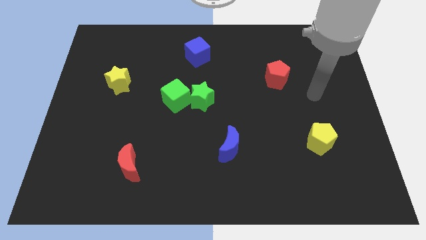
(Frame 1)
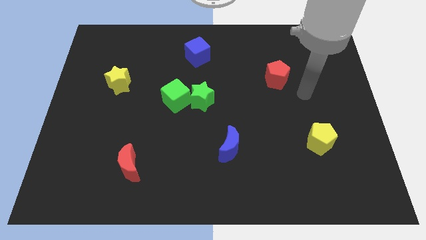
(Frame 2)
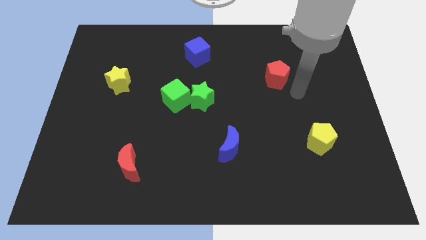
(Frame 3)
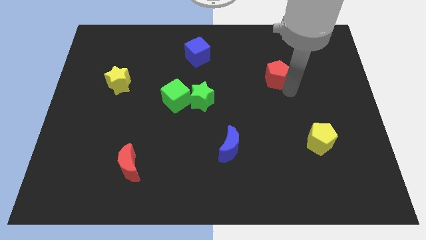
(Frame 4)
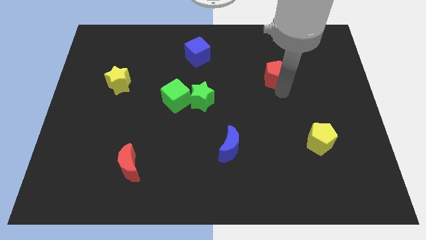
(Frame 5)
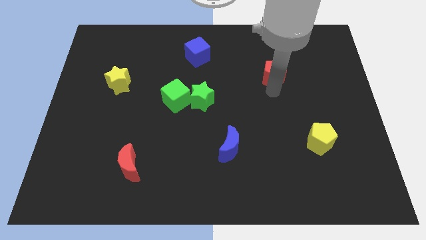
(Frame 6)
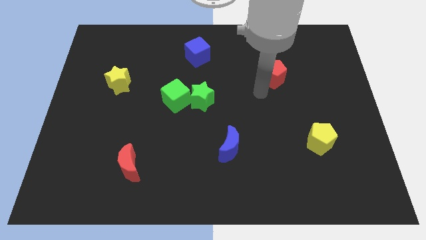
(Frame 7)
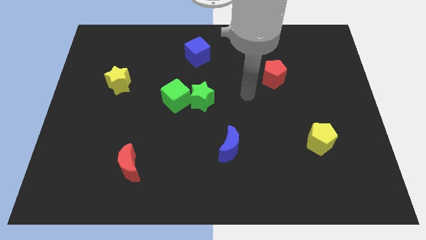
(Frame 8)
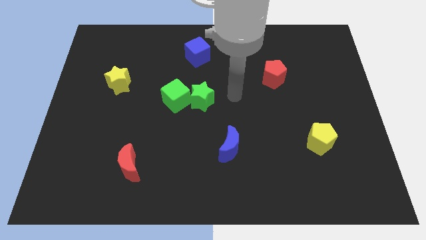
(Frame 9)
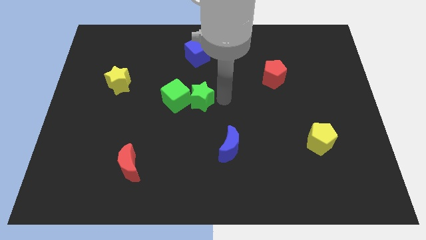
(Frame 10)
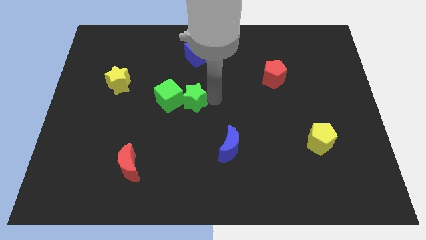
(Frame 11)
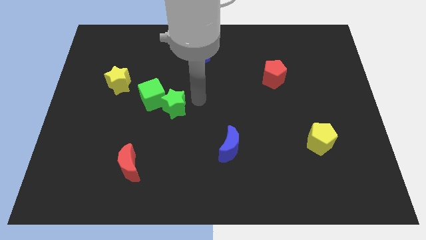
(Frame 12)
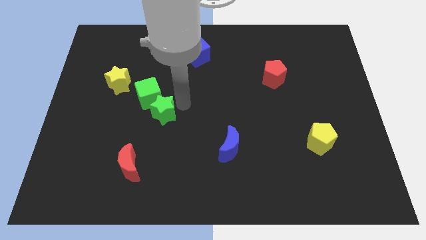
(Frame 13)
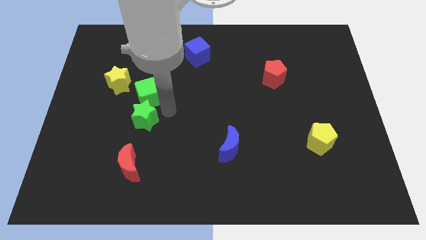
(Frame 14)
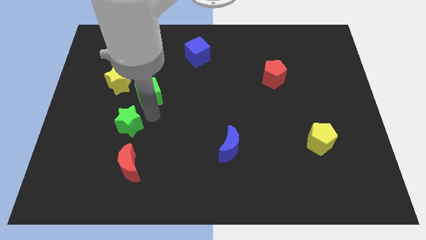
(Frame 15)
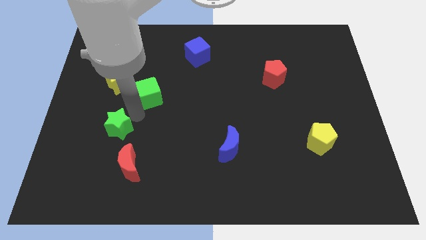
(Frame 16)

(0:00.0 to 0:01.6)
separate the green cube from the green star

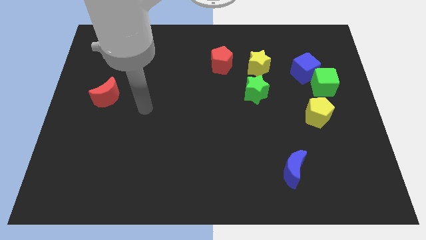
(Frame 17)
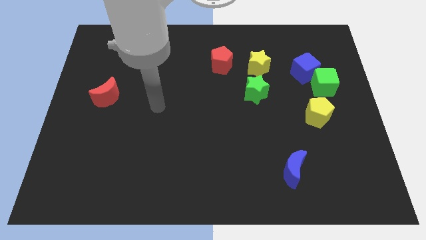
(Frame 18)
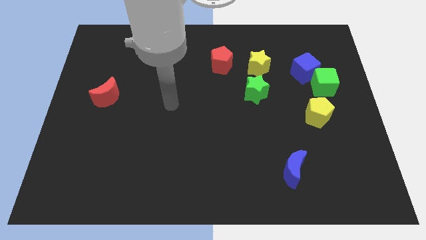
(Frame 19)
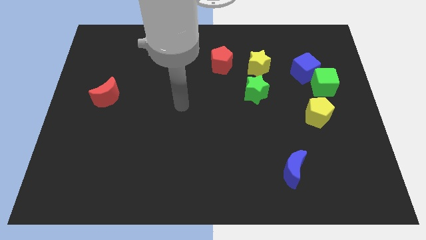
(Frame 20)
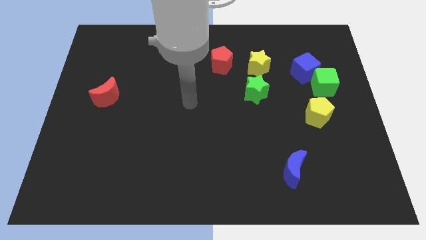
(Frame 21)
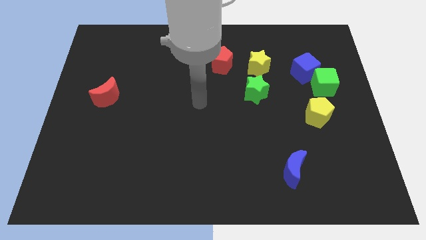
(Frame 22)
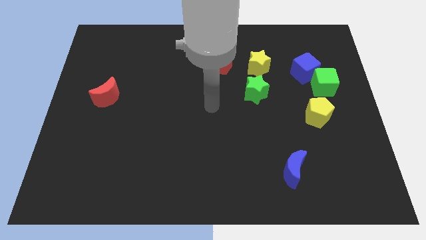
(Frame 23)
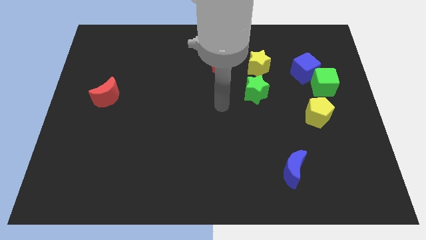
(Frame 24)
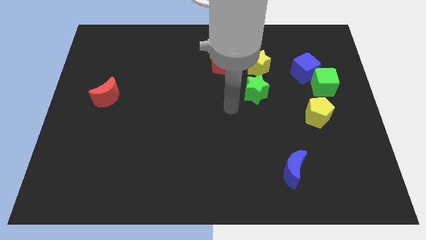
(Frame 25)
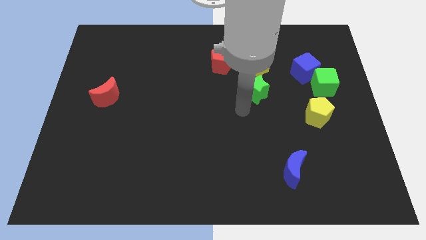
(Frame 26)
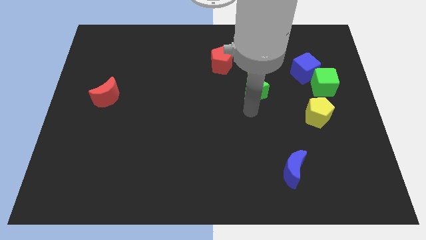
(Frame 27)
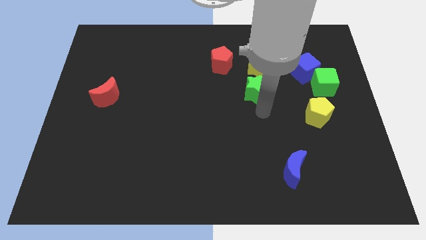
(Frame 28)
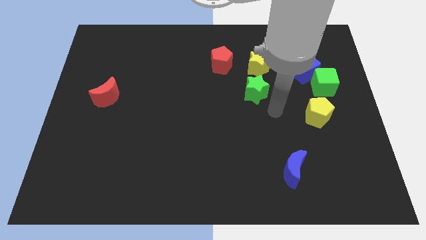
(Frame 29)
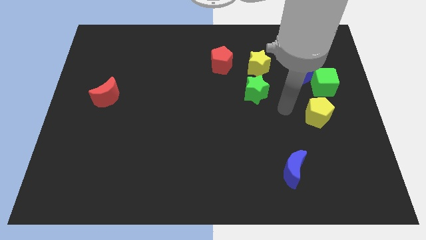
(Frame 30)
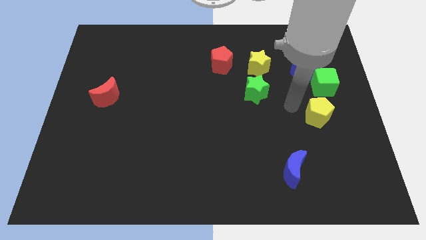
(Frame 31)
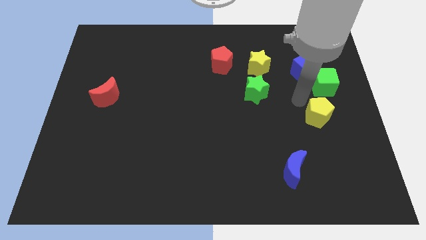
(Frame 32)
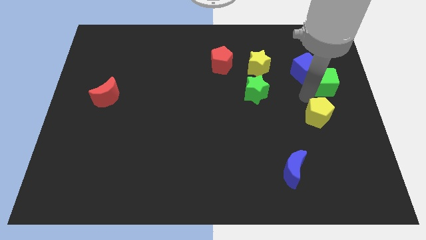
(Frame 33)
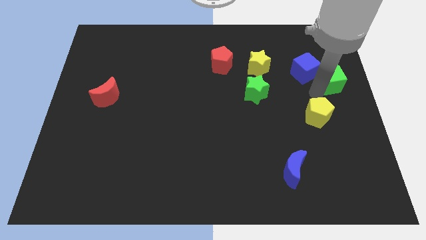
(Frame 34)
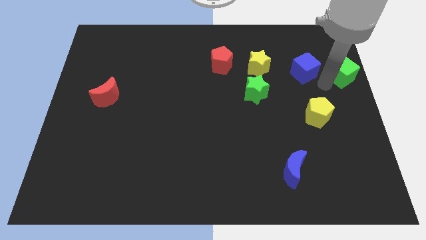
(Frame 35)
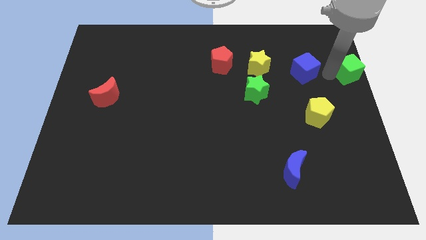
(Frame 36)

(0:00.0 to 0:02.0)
separate the blue cube from the green cube

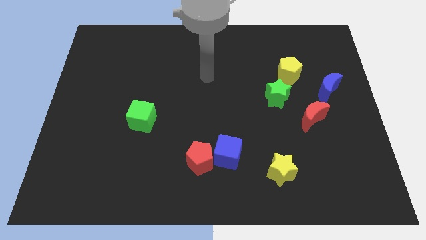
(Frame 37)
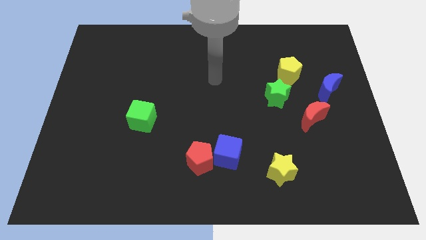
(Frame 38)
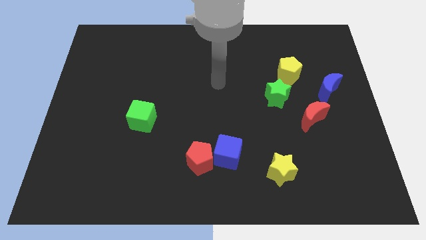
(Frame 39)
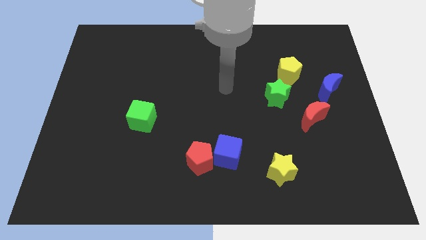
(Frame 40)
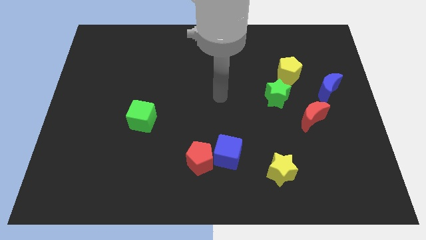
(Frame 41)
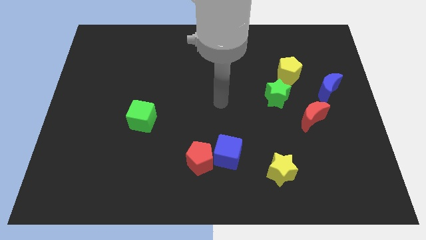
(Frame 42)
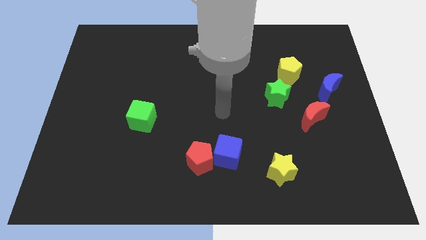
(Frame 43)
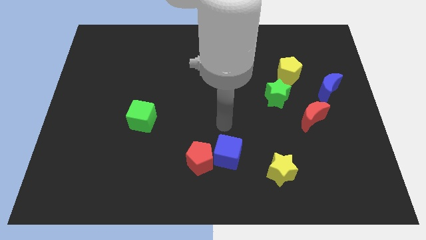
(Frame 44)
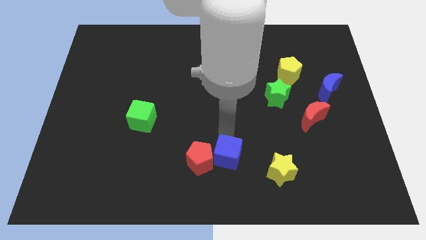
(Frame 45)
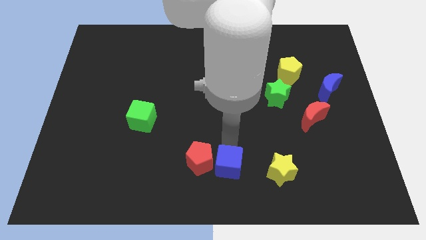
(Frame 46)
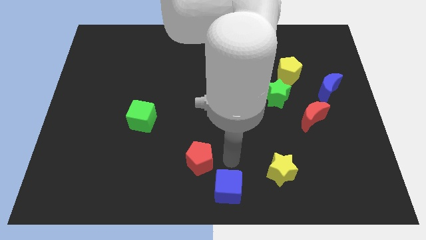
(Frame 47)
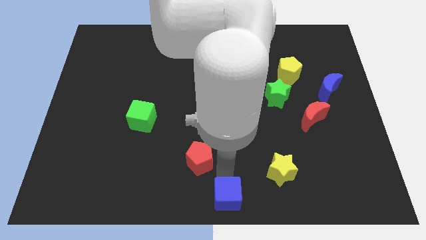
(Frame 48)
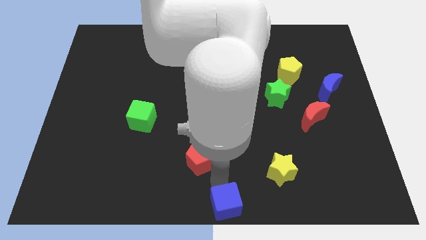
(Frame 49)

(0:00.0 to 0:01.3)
separate the red pentagon from the blue cube

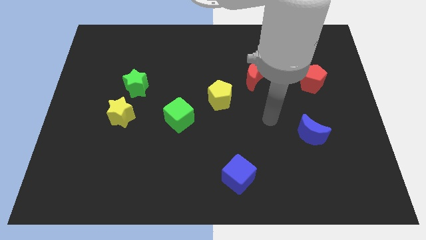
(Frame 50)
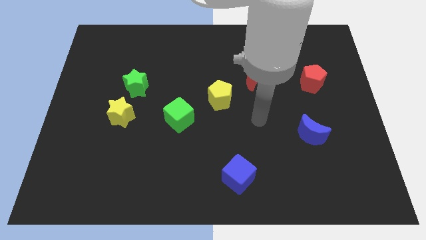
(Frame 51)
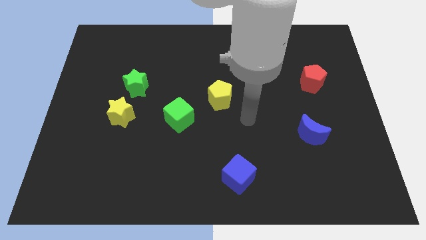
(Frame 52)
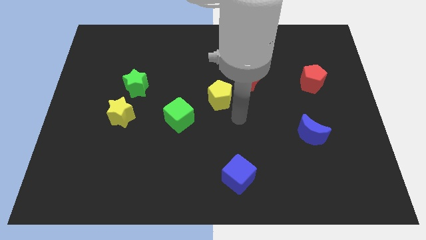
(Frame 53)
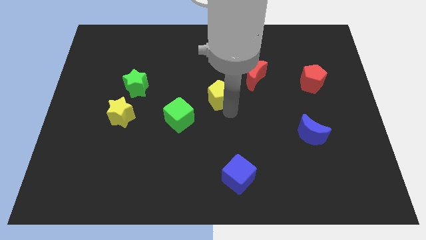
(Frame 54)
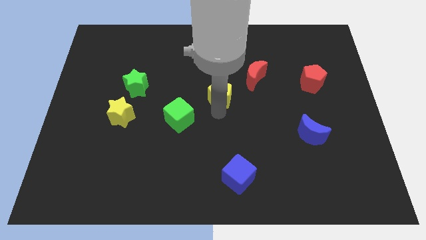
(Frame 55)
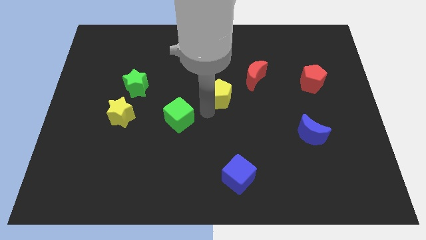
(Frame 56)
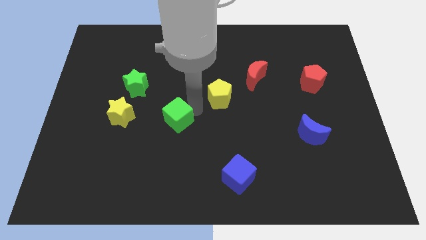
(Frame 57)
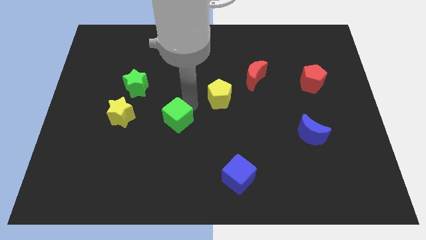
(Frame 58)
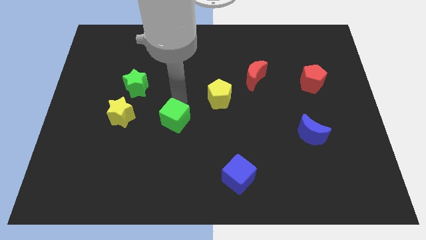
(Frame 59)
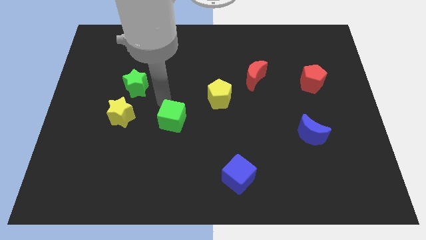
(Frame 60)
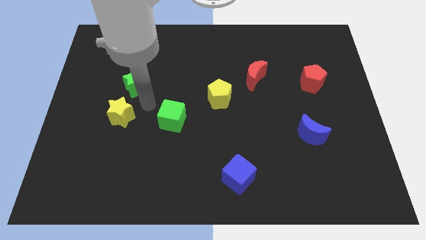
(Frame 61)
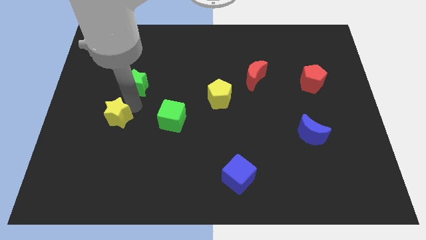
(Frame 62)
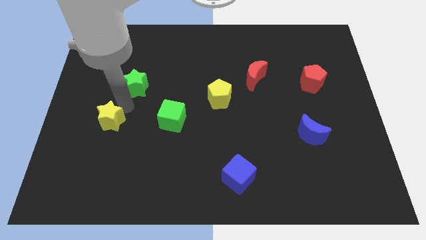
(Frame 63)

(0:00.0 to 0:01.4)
pull the green star apart from the yellow star

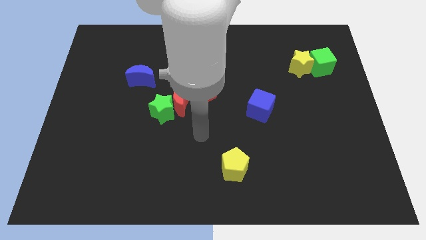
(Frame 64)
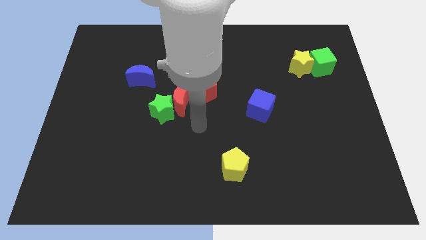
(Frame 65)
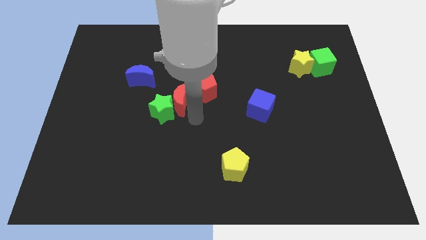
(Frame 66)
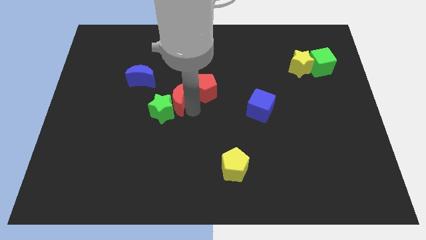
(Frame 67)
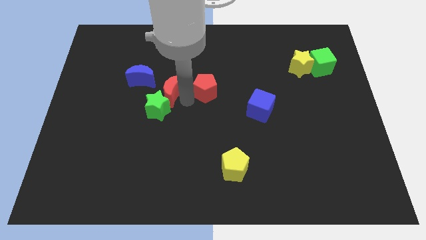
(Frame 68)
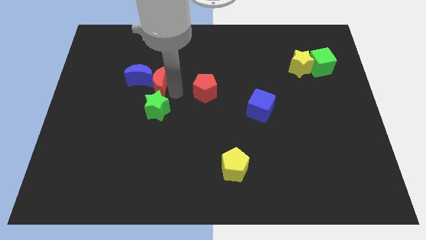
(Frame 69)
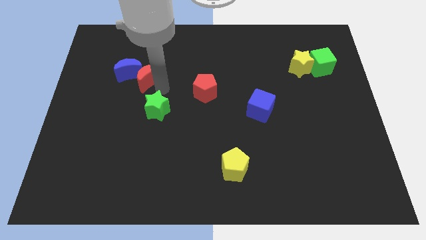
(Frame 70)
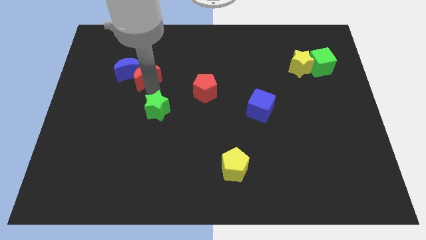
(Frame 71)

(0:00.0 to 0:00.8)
pull the green star apart from the red moon

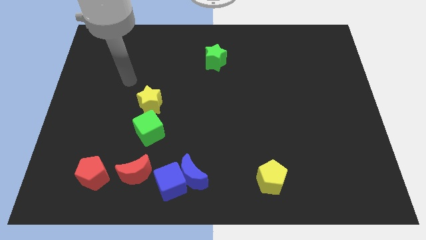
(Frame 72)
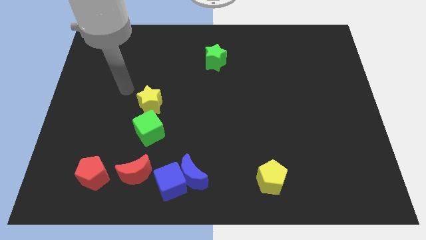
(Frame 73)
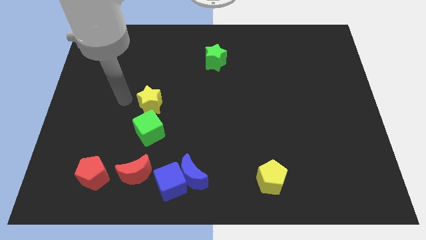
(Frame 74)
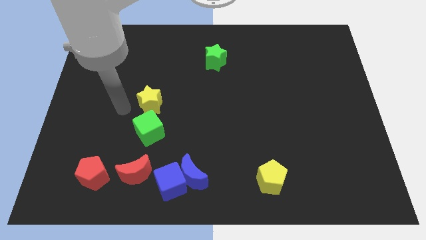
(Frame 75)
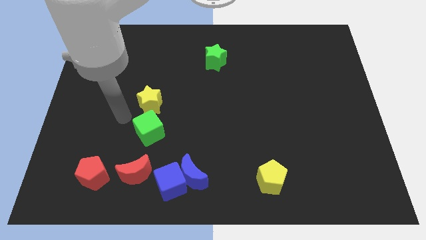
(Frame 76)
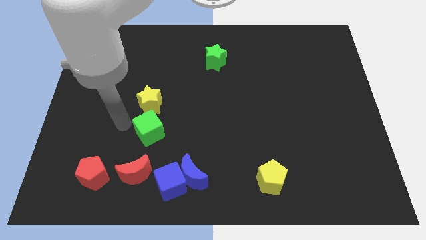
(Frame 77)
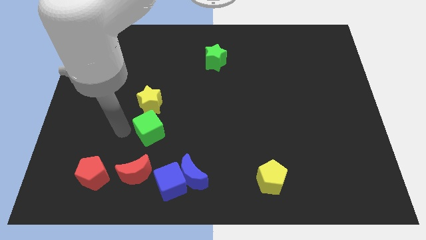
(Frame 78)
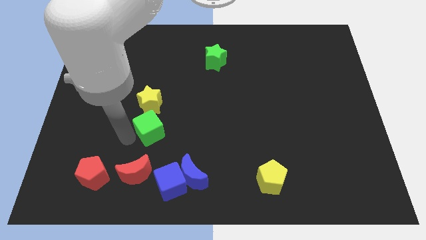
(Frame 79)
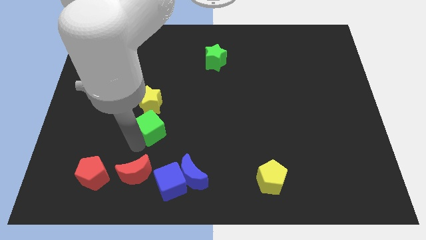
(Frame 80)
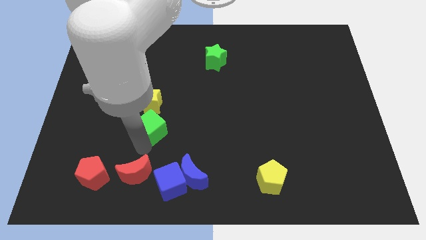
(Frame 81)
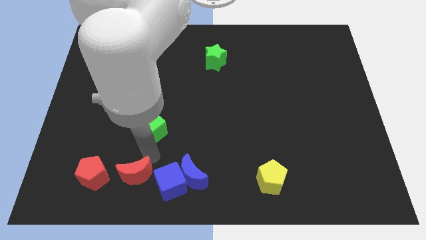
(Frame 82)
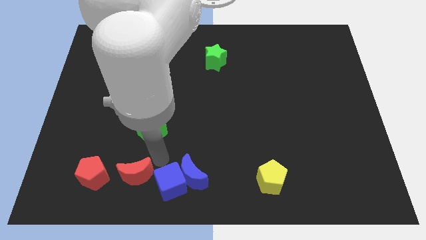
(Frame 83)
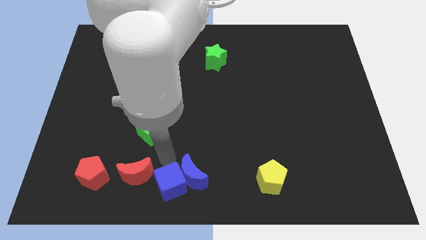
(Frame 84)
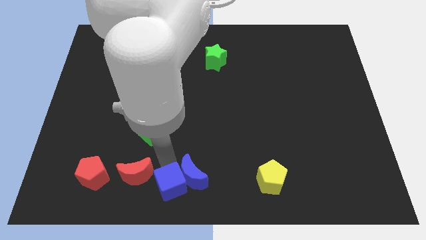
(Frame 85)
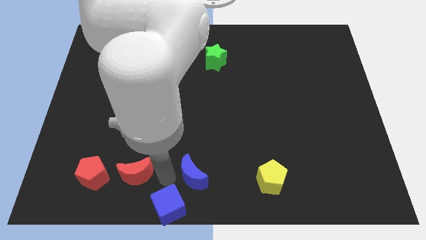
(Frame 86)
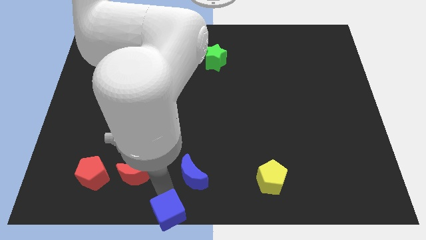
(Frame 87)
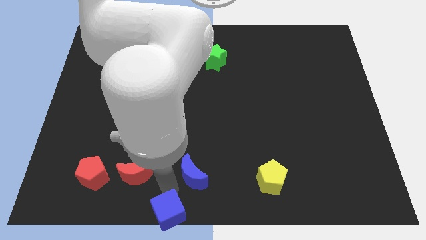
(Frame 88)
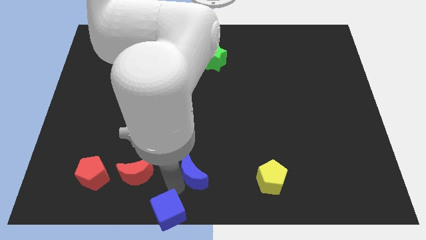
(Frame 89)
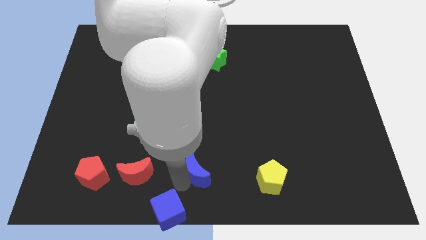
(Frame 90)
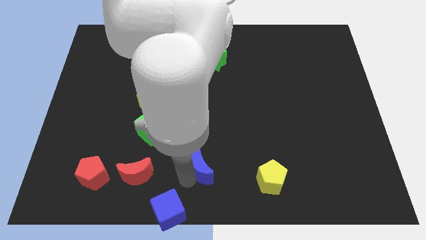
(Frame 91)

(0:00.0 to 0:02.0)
move the blue moon away from the blue cube

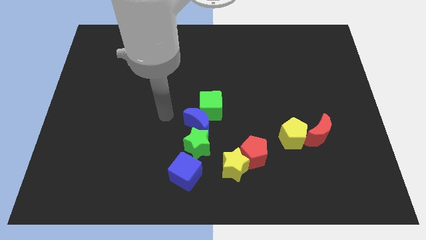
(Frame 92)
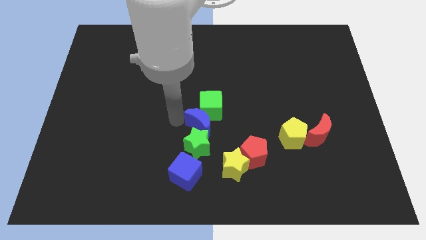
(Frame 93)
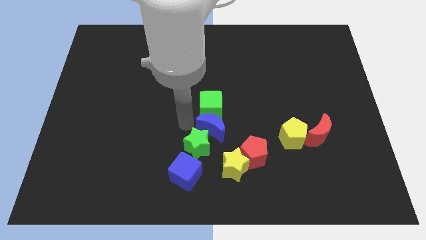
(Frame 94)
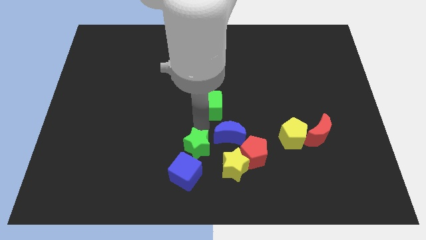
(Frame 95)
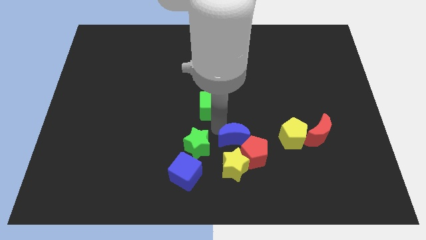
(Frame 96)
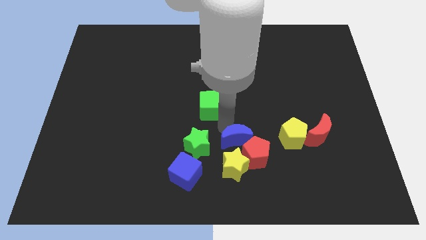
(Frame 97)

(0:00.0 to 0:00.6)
pull the green cube apart from the blue moon
